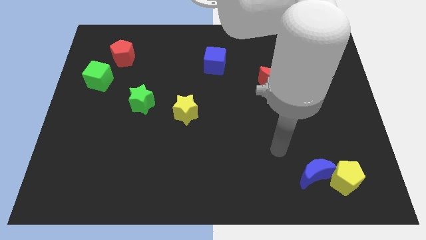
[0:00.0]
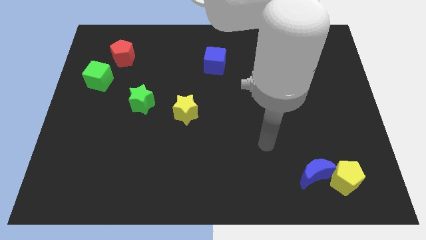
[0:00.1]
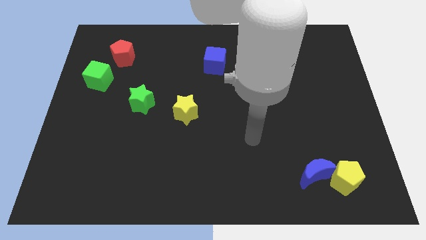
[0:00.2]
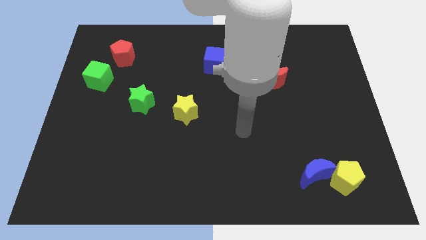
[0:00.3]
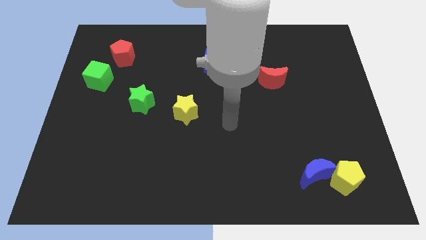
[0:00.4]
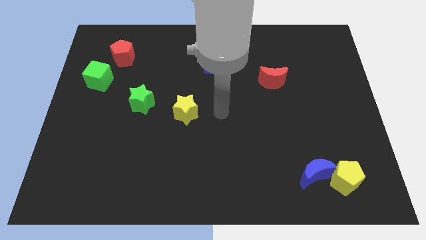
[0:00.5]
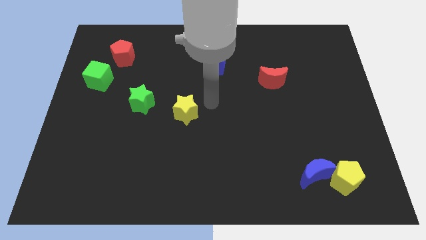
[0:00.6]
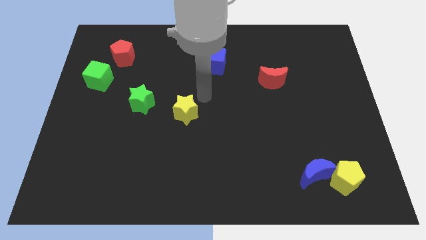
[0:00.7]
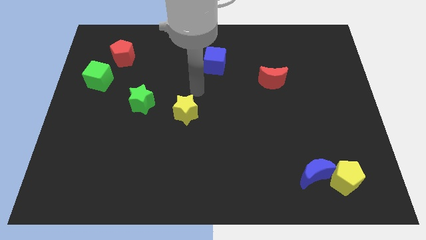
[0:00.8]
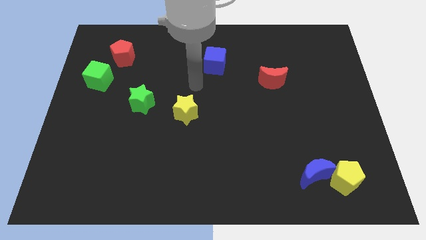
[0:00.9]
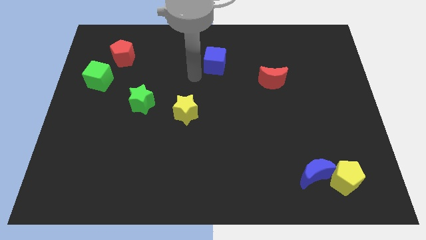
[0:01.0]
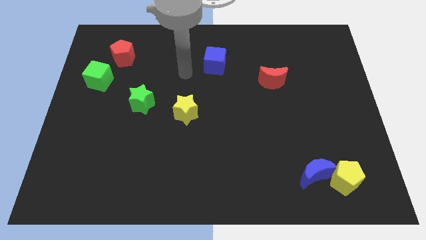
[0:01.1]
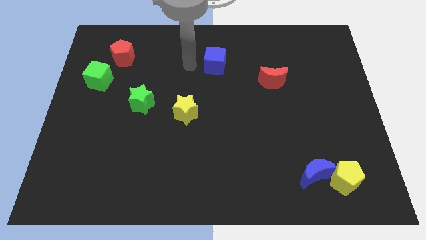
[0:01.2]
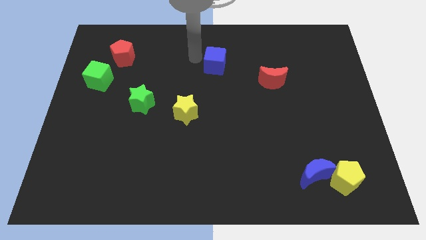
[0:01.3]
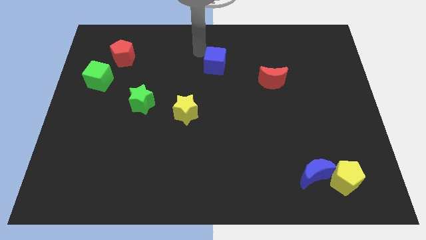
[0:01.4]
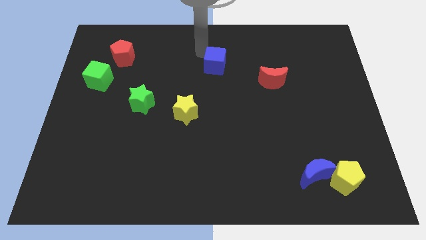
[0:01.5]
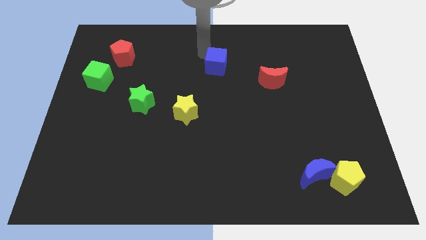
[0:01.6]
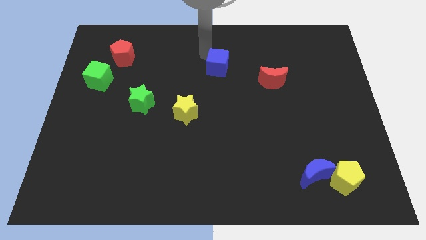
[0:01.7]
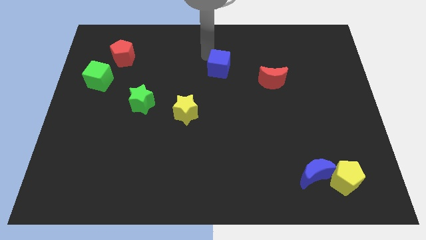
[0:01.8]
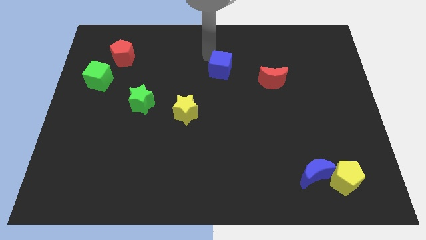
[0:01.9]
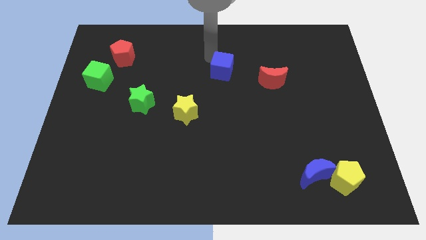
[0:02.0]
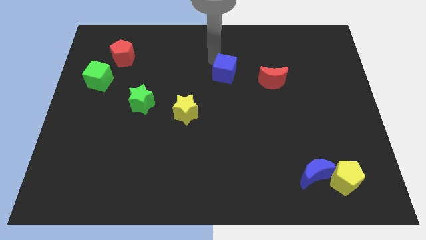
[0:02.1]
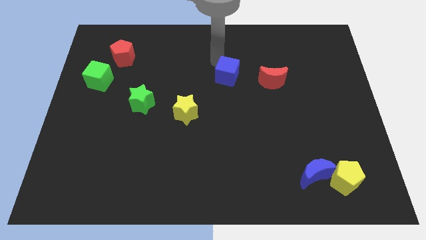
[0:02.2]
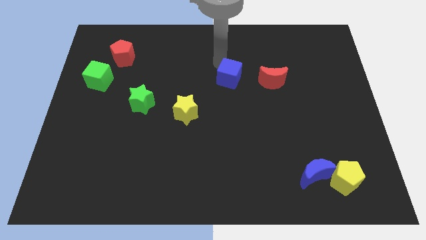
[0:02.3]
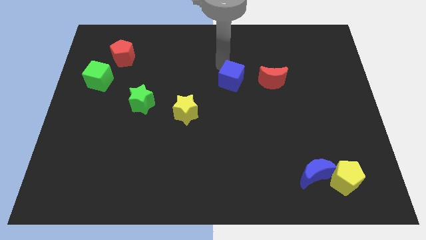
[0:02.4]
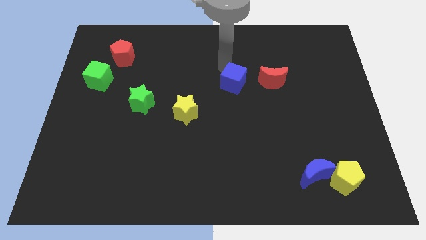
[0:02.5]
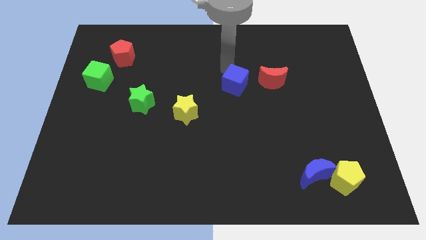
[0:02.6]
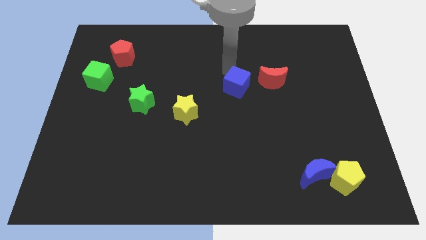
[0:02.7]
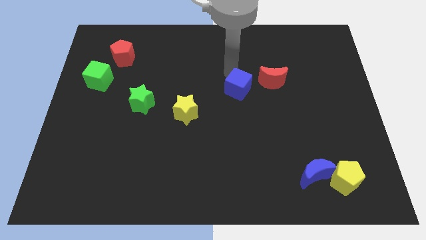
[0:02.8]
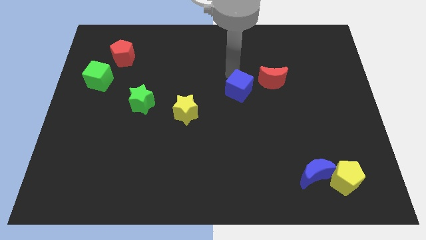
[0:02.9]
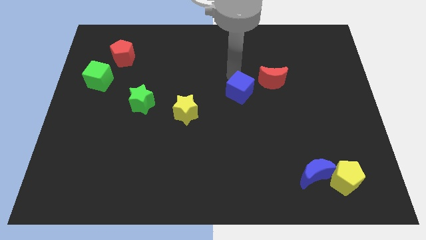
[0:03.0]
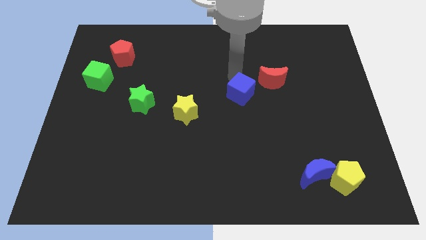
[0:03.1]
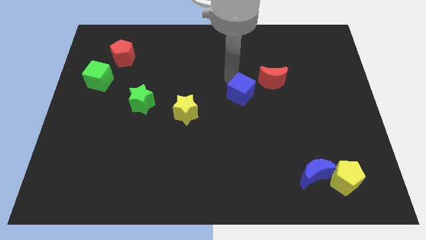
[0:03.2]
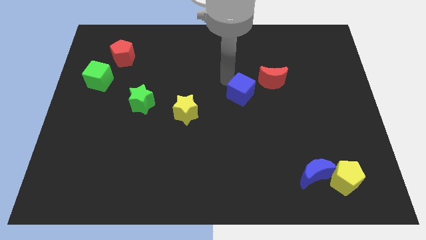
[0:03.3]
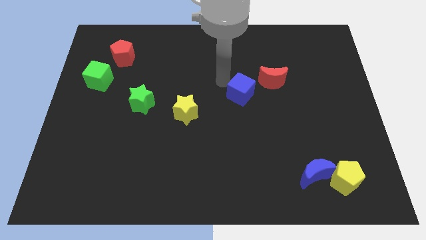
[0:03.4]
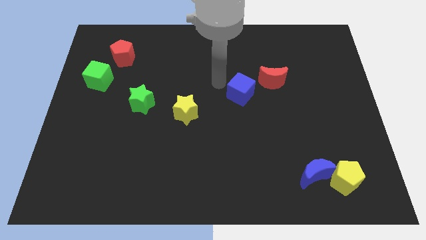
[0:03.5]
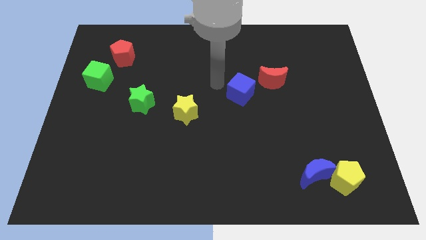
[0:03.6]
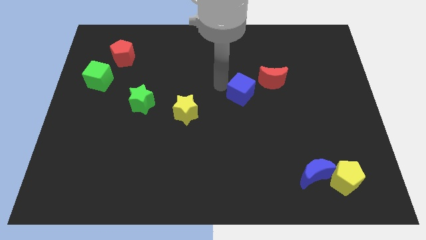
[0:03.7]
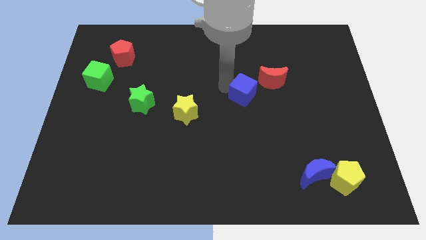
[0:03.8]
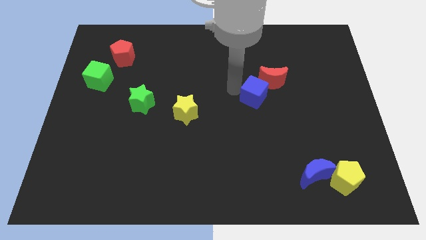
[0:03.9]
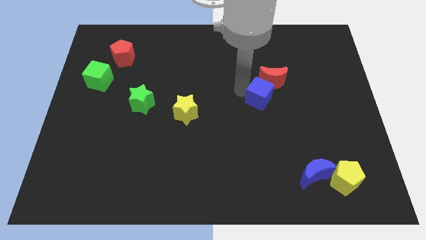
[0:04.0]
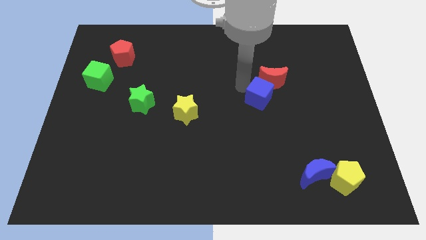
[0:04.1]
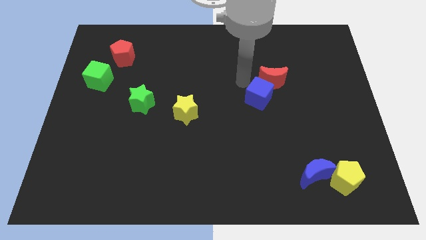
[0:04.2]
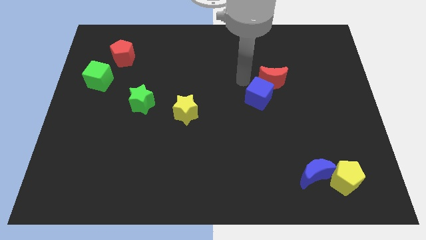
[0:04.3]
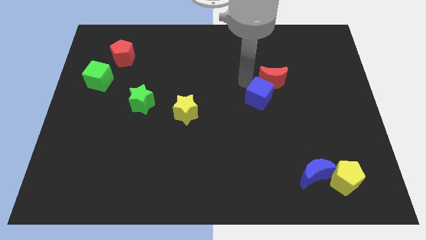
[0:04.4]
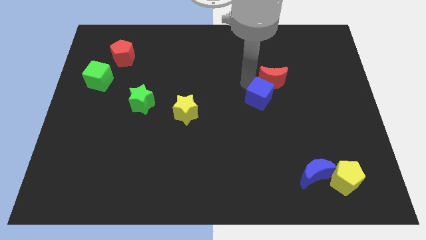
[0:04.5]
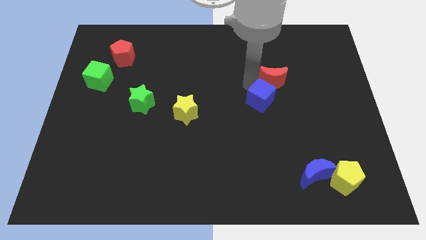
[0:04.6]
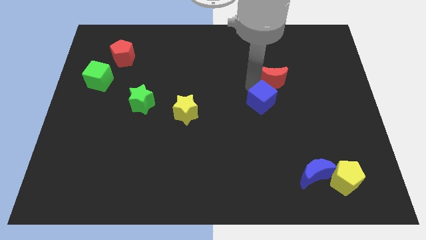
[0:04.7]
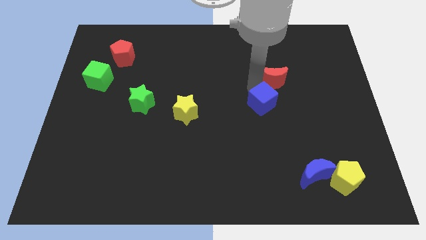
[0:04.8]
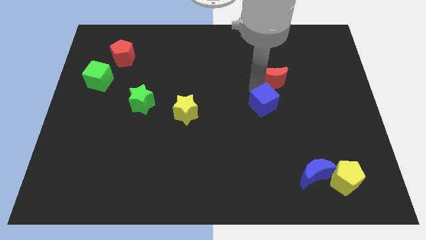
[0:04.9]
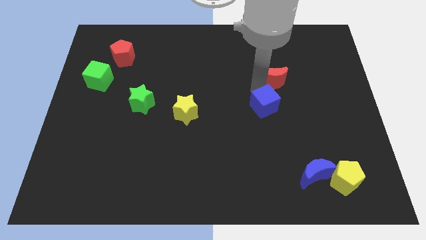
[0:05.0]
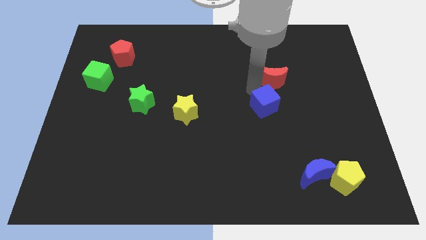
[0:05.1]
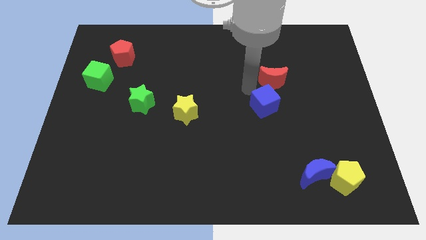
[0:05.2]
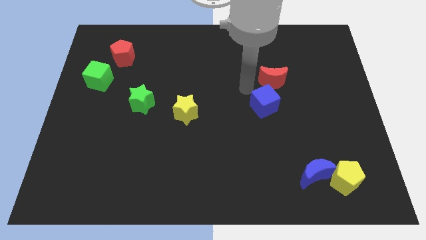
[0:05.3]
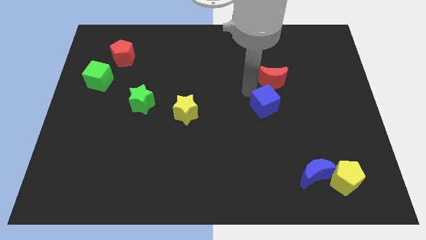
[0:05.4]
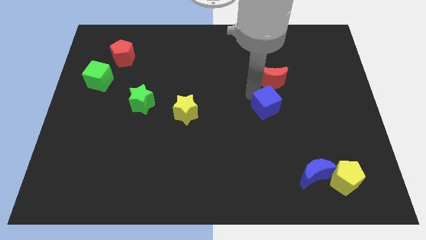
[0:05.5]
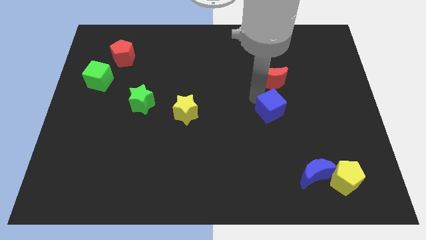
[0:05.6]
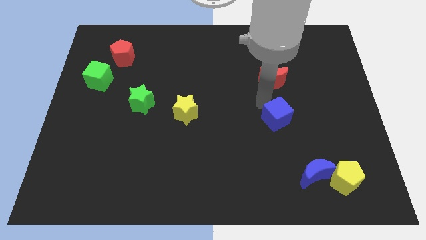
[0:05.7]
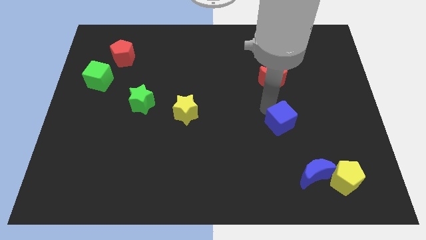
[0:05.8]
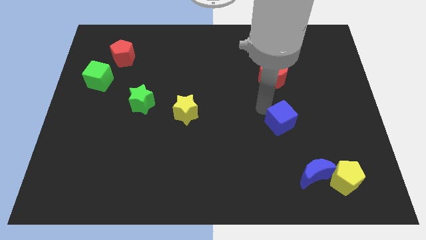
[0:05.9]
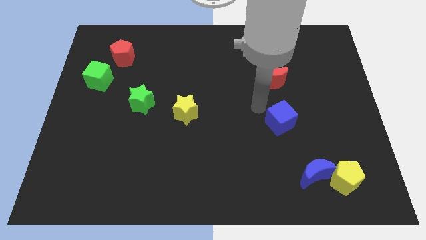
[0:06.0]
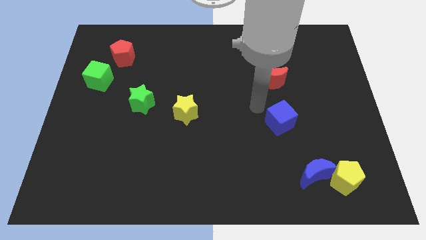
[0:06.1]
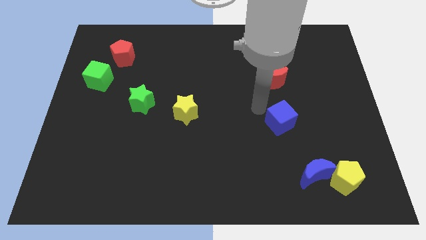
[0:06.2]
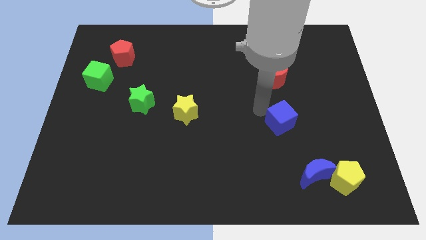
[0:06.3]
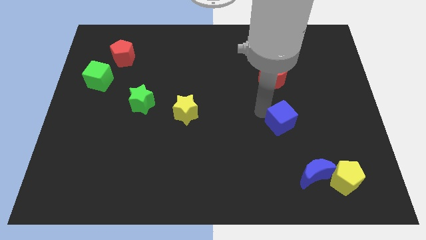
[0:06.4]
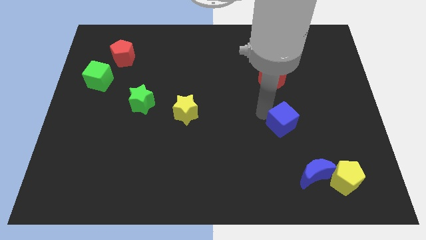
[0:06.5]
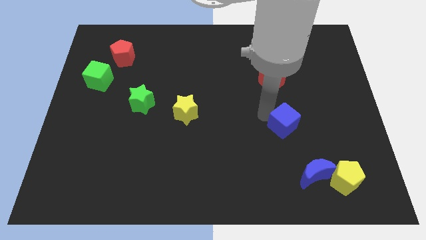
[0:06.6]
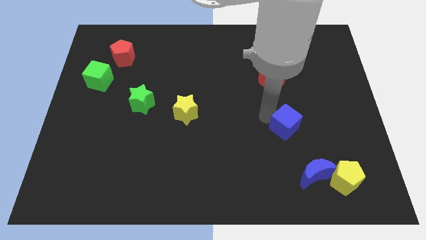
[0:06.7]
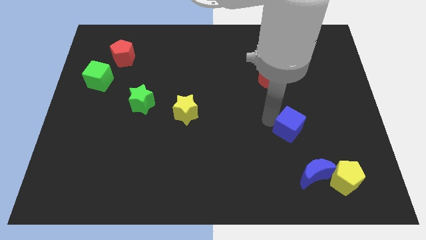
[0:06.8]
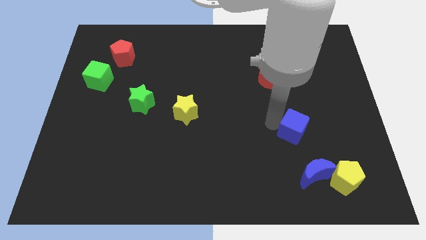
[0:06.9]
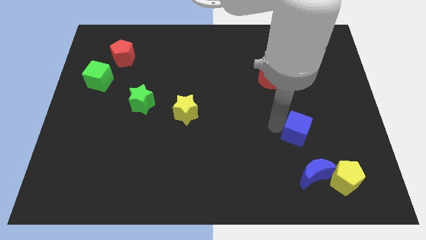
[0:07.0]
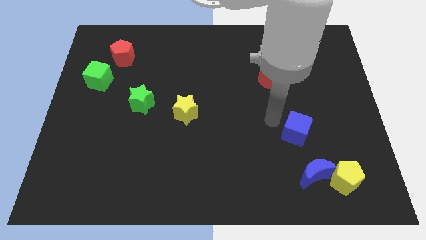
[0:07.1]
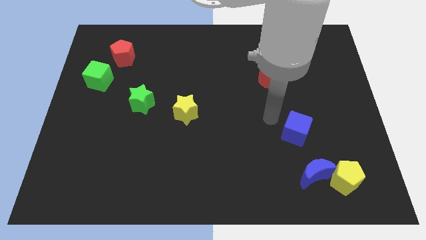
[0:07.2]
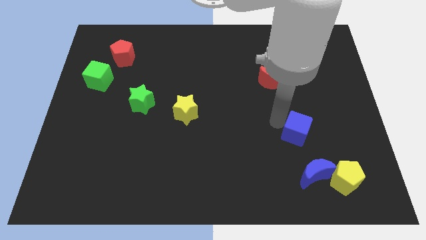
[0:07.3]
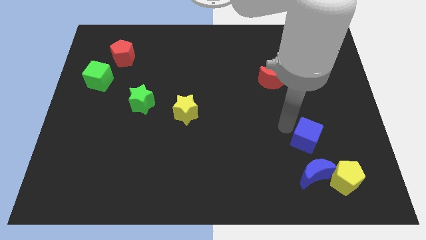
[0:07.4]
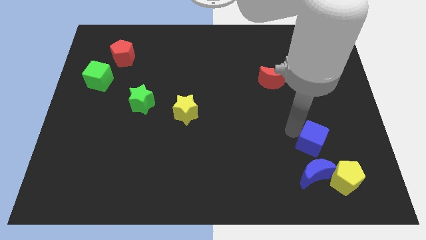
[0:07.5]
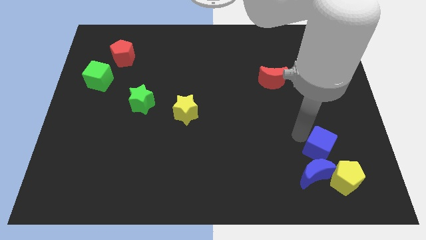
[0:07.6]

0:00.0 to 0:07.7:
put the blue cube to the top right side of the blue moon
